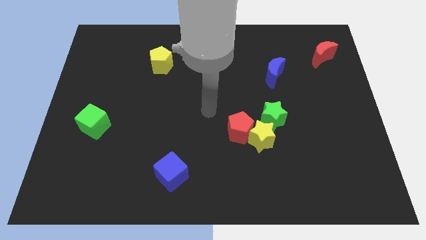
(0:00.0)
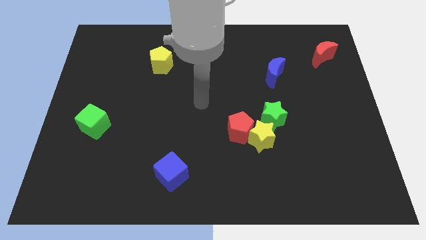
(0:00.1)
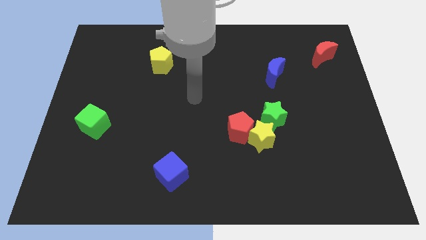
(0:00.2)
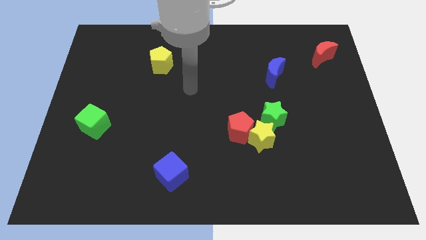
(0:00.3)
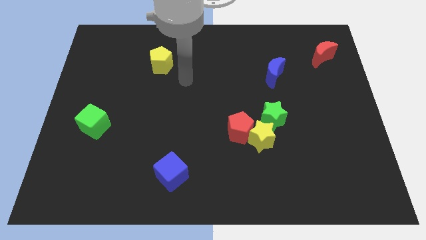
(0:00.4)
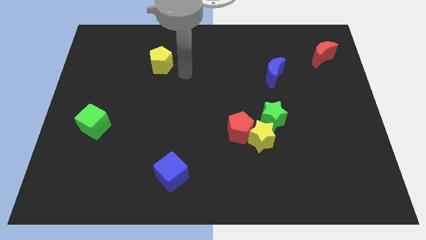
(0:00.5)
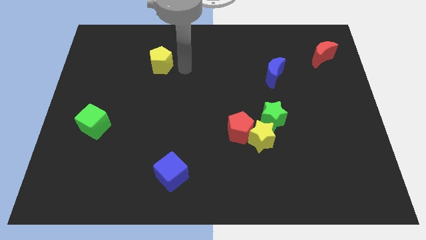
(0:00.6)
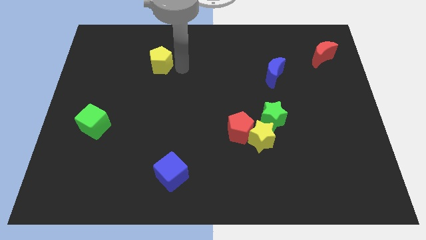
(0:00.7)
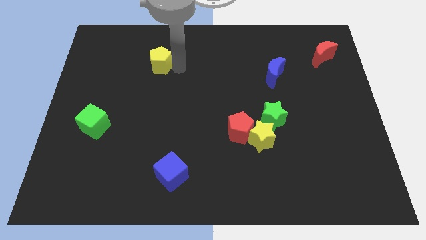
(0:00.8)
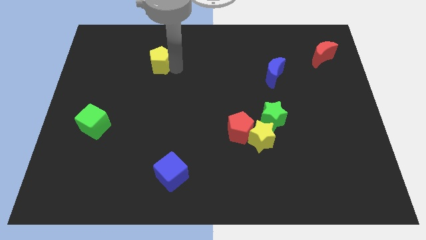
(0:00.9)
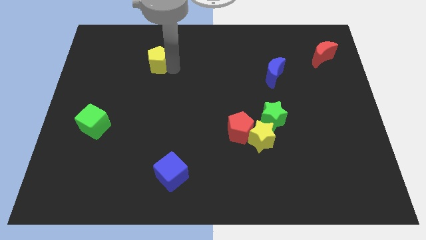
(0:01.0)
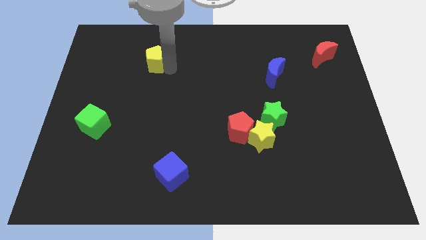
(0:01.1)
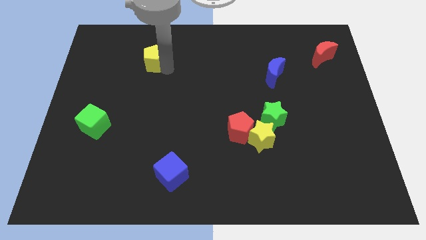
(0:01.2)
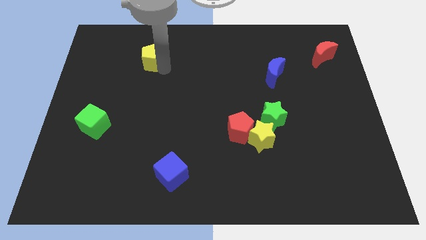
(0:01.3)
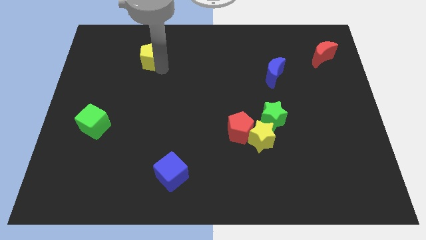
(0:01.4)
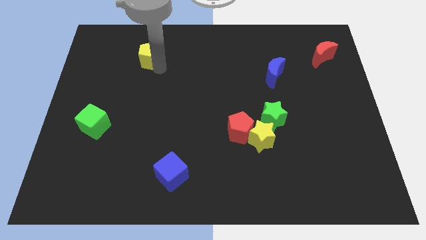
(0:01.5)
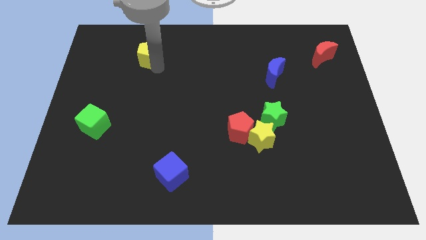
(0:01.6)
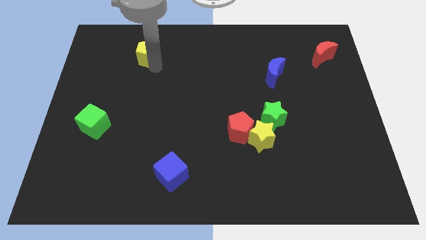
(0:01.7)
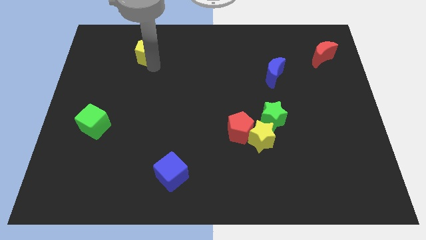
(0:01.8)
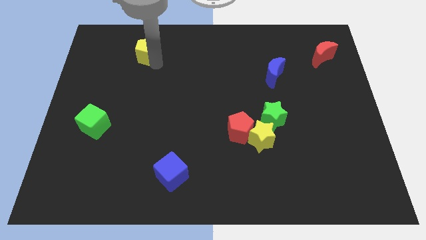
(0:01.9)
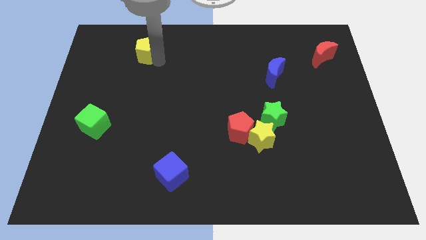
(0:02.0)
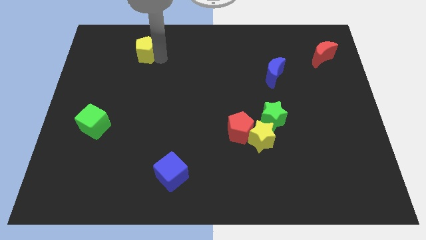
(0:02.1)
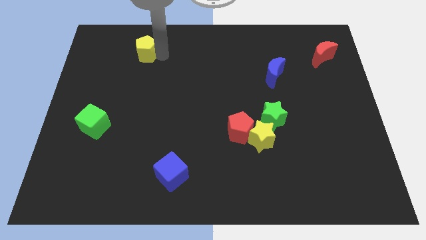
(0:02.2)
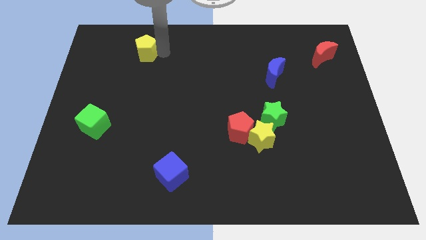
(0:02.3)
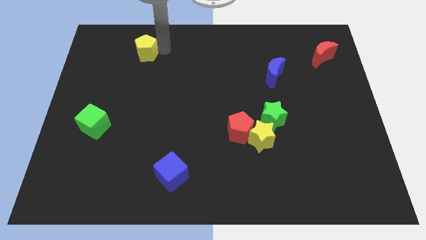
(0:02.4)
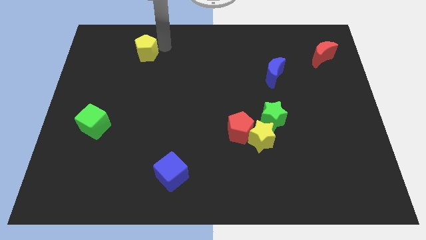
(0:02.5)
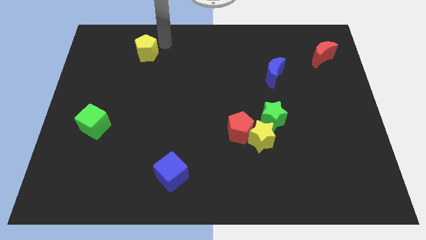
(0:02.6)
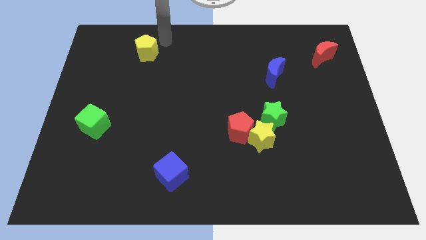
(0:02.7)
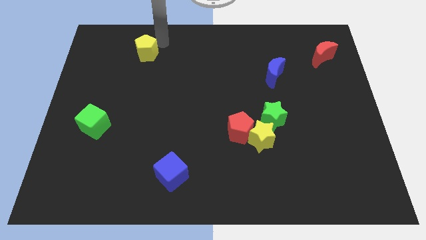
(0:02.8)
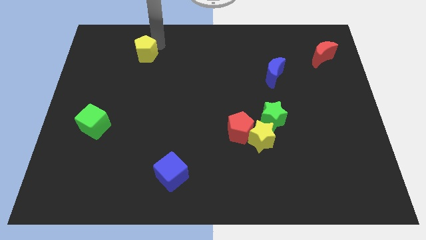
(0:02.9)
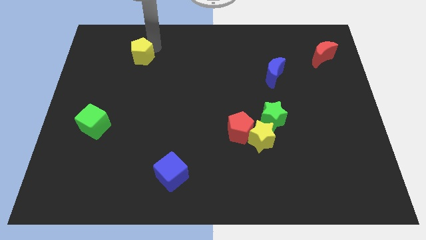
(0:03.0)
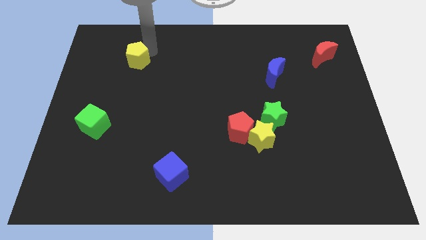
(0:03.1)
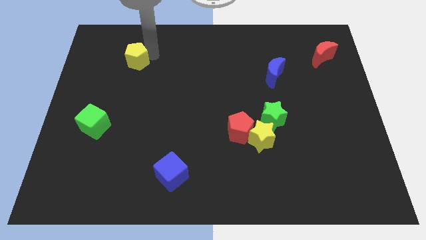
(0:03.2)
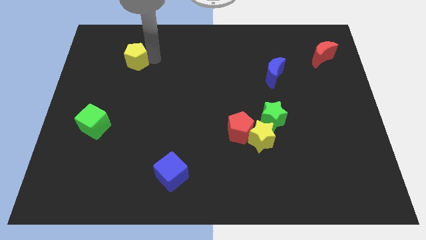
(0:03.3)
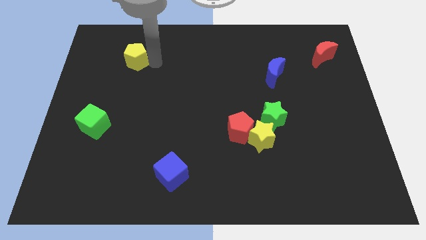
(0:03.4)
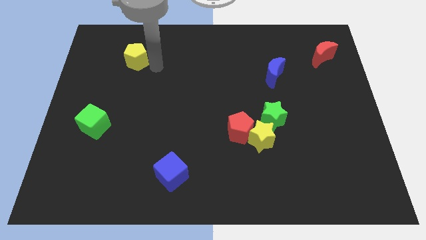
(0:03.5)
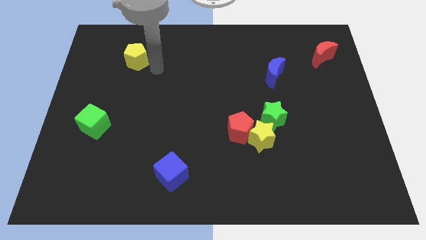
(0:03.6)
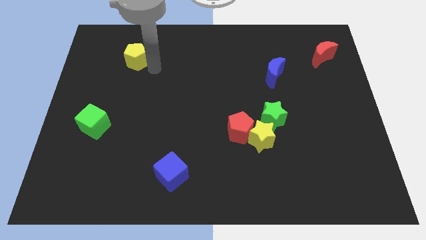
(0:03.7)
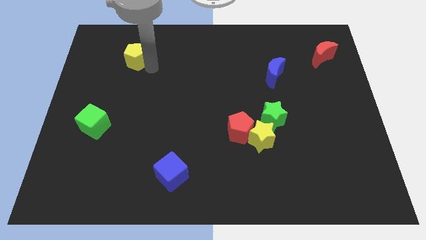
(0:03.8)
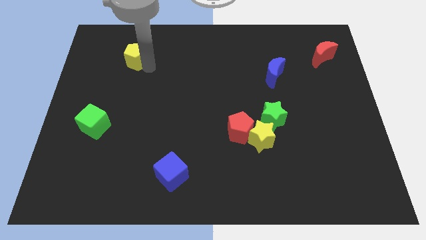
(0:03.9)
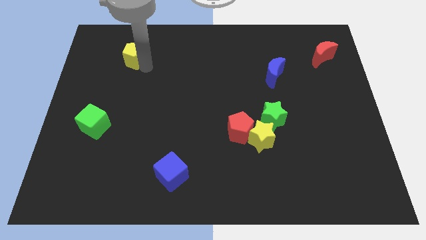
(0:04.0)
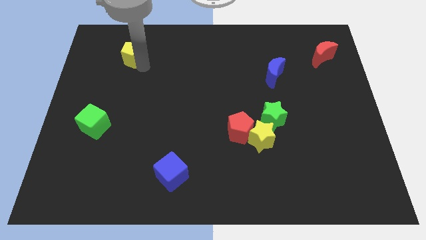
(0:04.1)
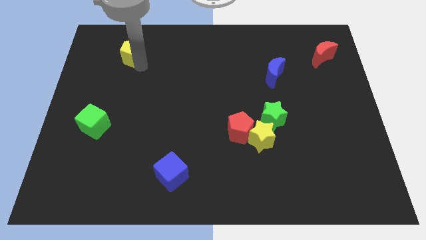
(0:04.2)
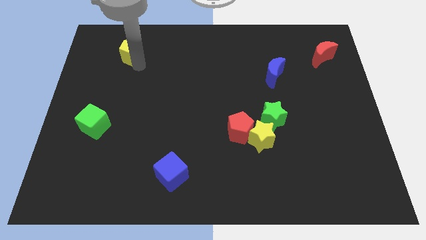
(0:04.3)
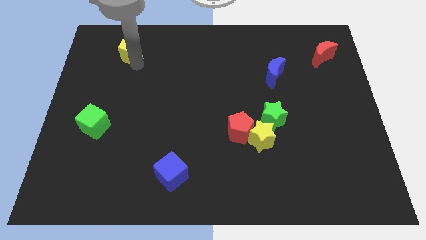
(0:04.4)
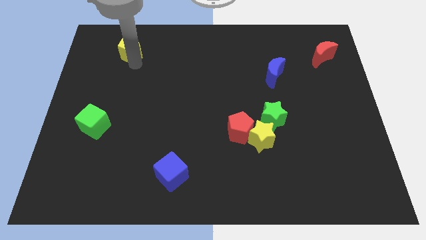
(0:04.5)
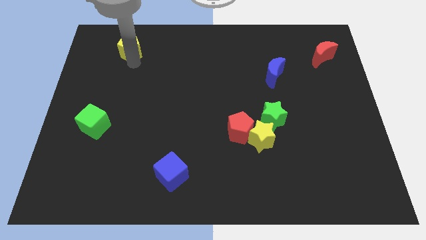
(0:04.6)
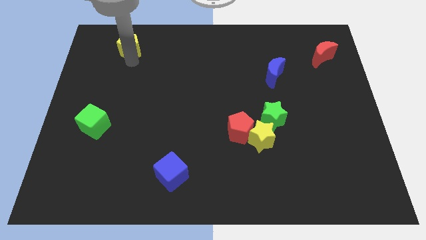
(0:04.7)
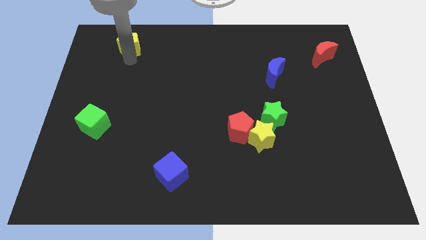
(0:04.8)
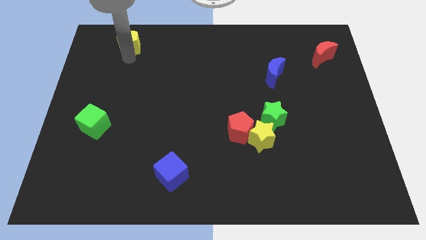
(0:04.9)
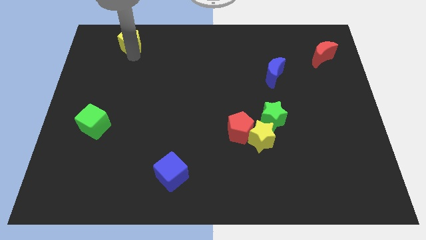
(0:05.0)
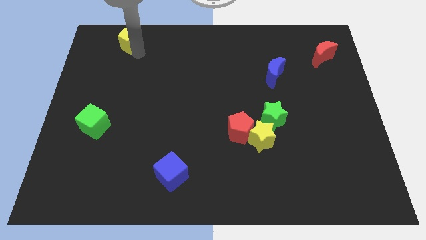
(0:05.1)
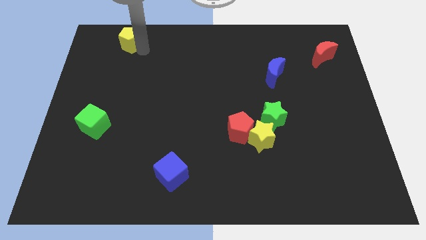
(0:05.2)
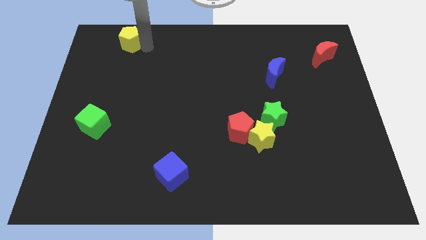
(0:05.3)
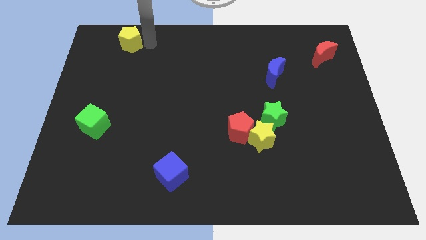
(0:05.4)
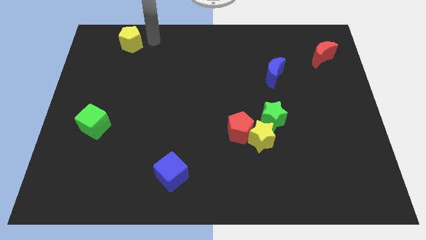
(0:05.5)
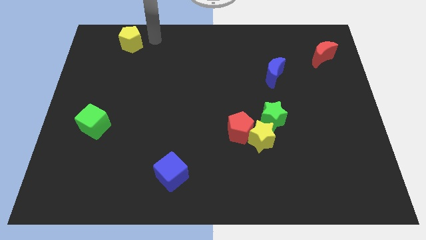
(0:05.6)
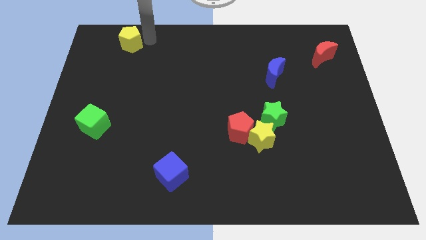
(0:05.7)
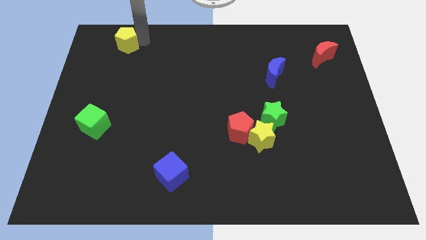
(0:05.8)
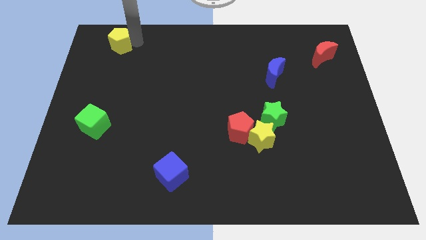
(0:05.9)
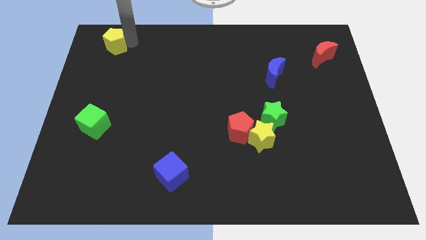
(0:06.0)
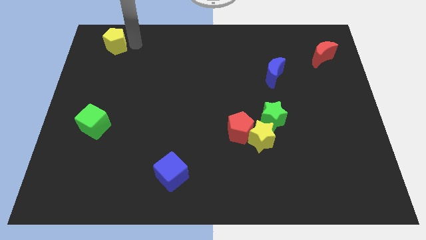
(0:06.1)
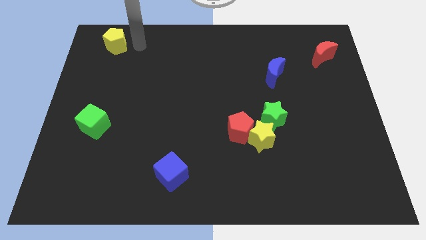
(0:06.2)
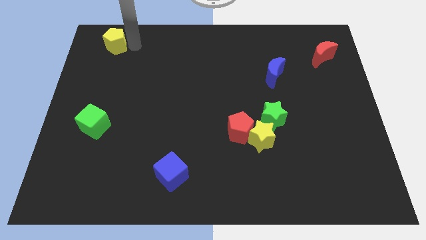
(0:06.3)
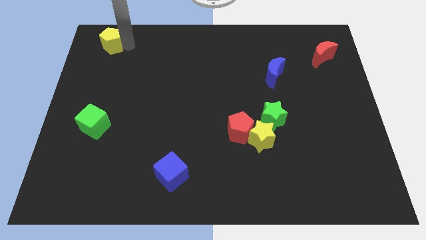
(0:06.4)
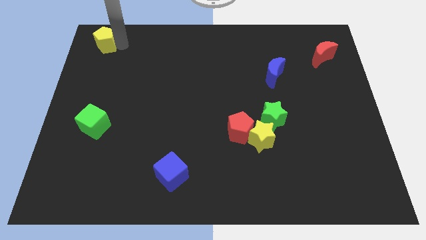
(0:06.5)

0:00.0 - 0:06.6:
put the yellow pentagon to the top left
